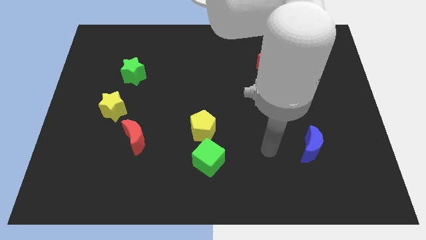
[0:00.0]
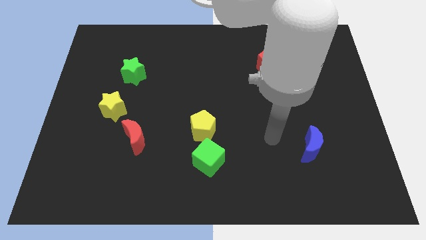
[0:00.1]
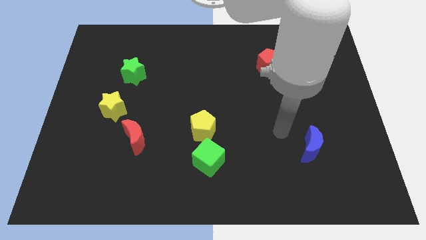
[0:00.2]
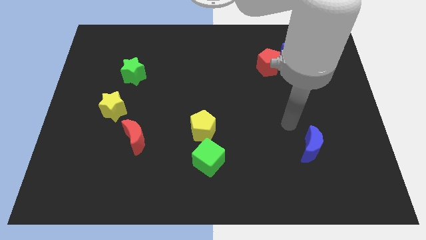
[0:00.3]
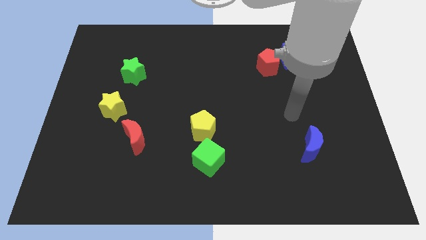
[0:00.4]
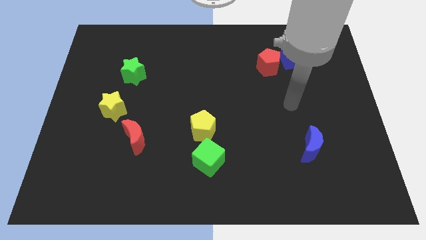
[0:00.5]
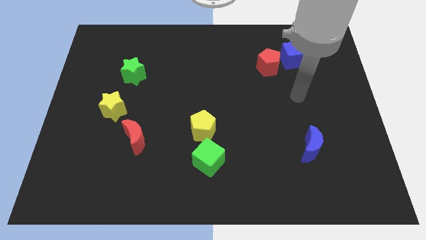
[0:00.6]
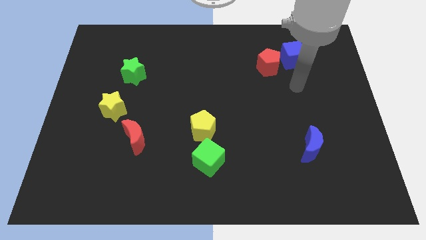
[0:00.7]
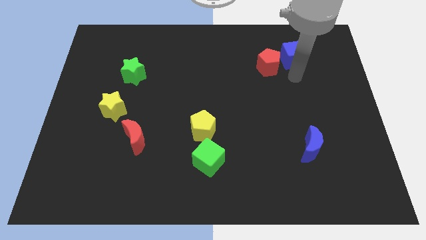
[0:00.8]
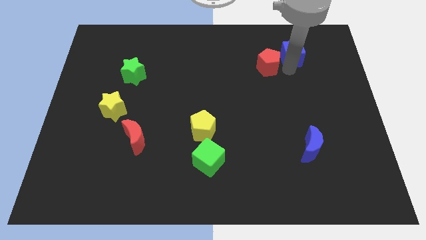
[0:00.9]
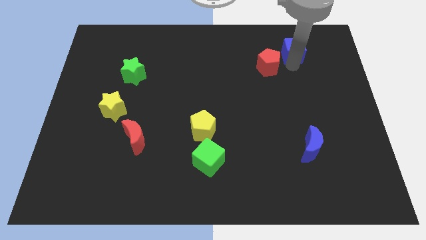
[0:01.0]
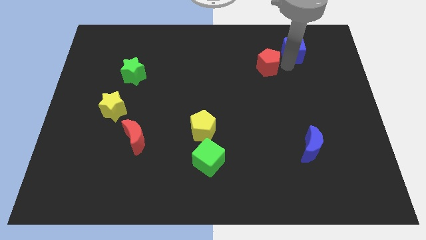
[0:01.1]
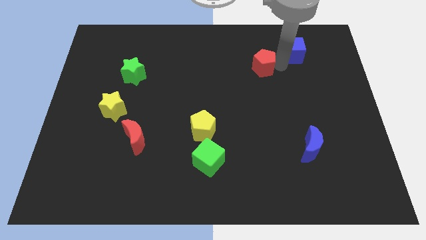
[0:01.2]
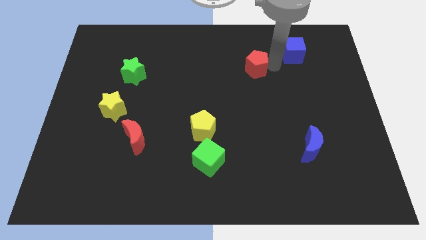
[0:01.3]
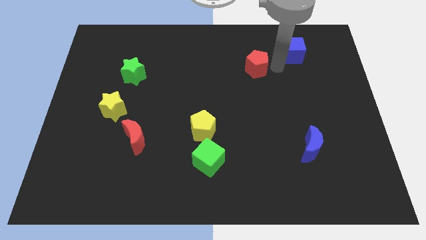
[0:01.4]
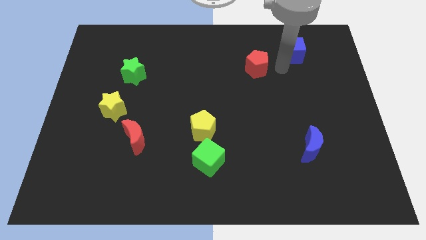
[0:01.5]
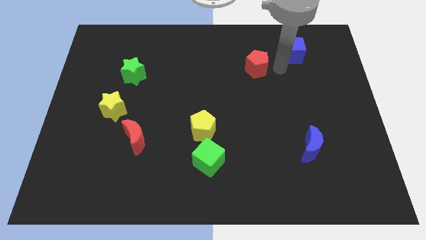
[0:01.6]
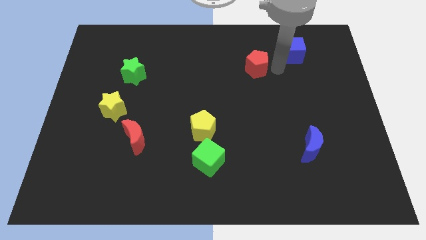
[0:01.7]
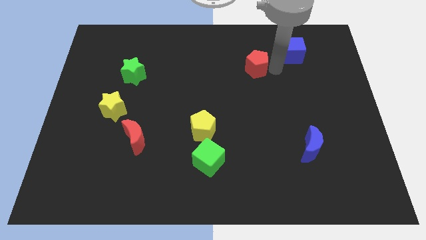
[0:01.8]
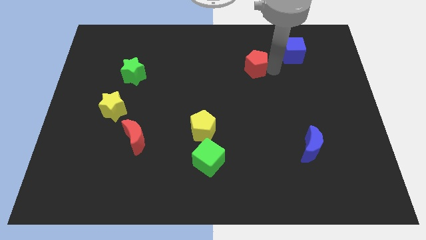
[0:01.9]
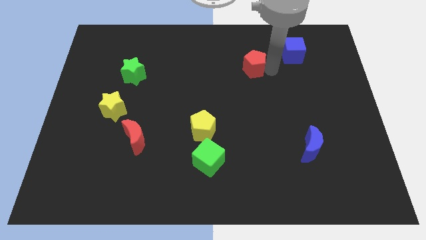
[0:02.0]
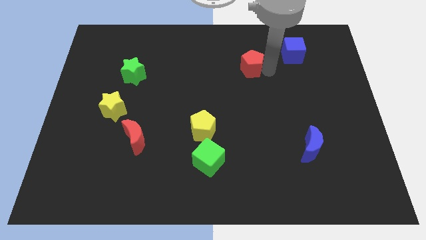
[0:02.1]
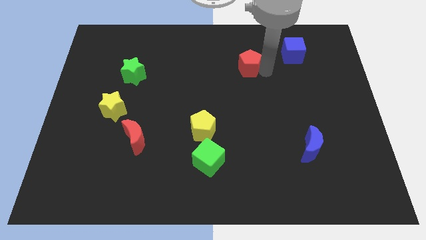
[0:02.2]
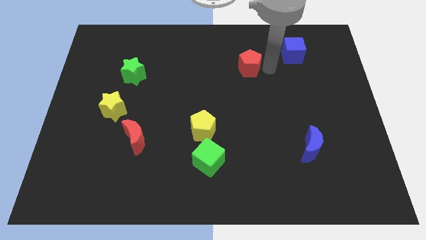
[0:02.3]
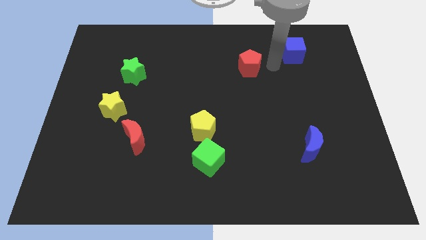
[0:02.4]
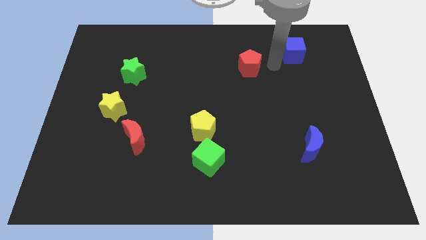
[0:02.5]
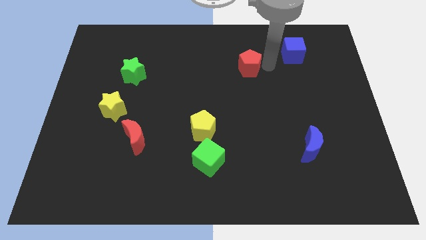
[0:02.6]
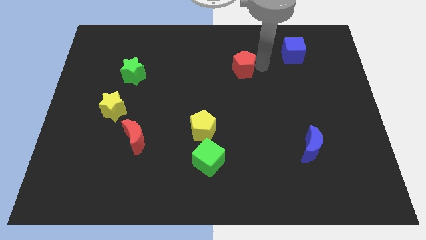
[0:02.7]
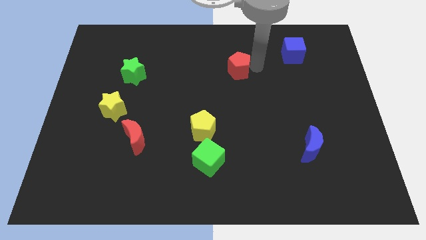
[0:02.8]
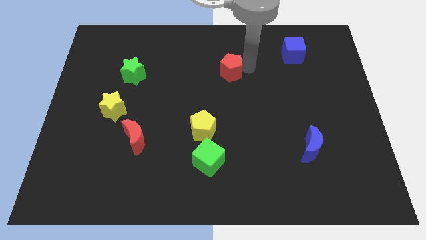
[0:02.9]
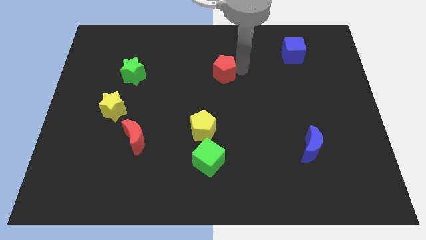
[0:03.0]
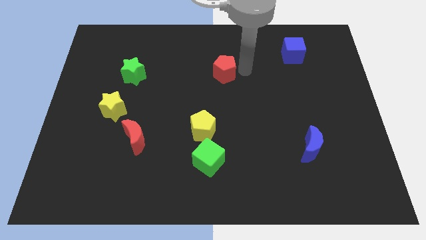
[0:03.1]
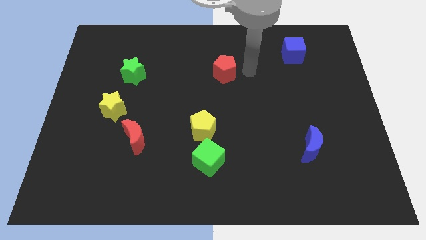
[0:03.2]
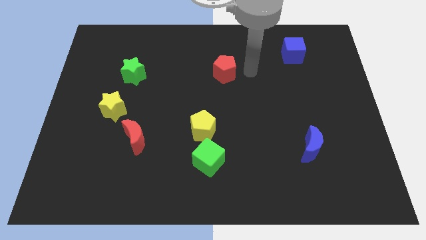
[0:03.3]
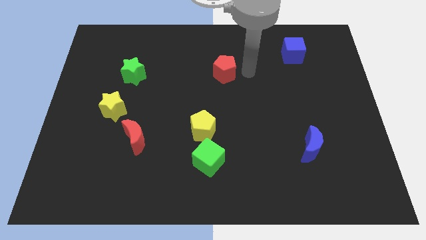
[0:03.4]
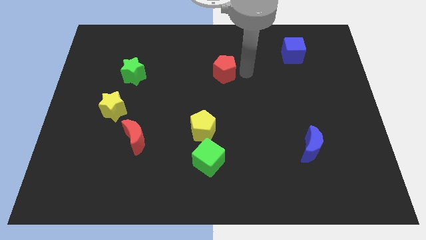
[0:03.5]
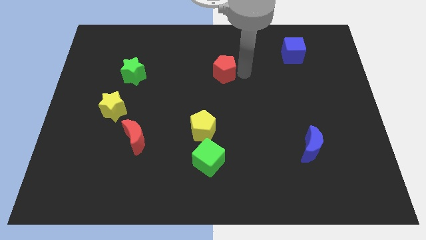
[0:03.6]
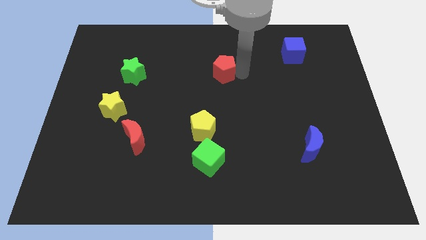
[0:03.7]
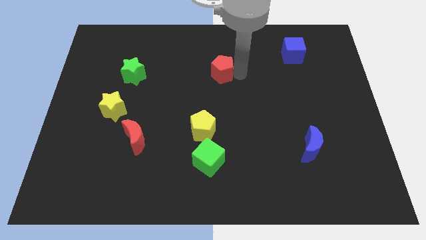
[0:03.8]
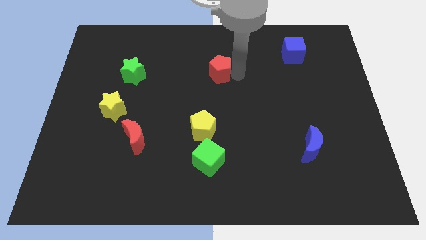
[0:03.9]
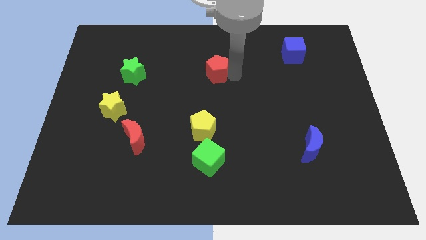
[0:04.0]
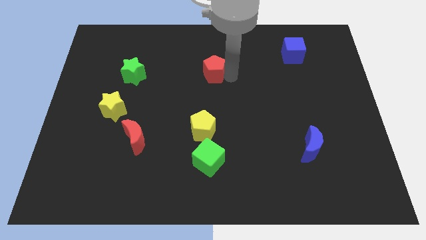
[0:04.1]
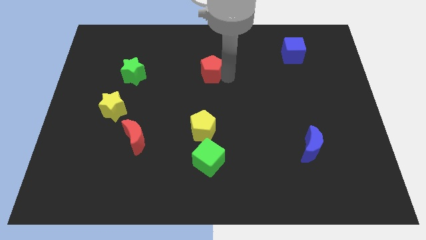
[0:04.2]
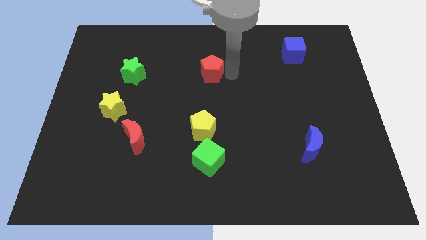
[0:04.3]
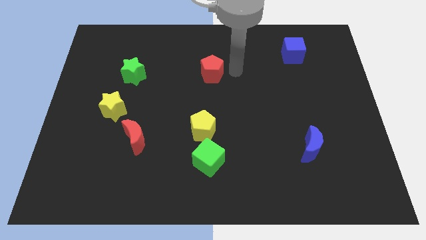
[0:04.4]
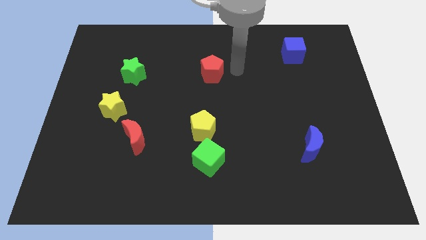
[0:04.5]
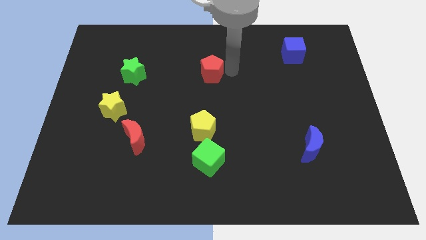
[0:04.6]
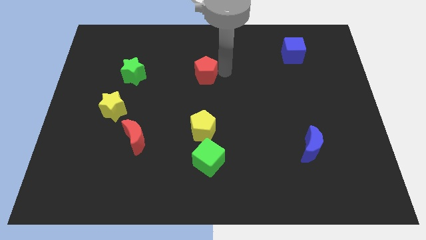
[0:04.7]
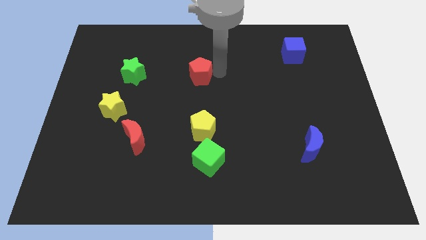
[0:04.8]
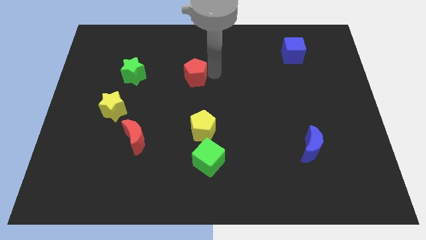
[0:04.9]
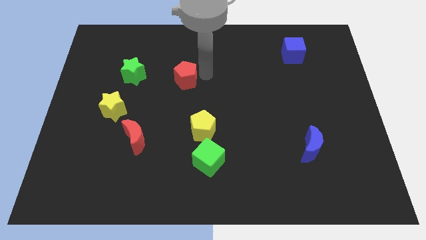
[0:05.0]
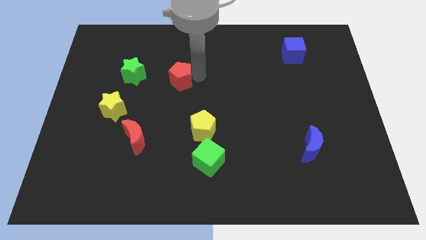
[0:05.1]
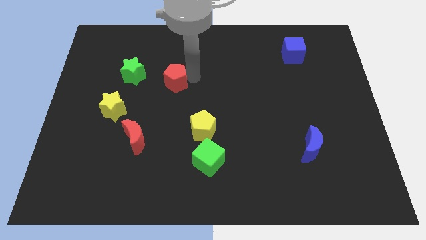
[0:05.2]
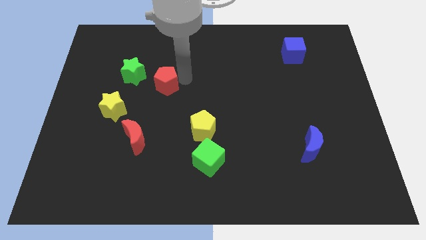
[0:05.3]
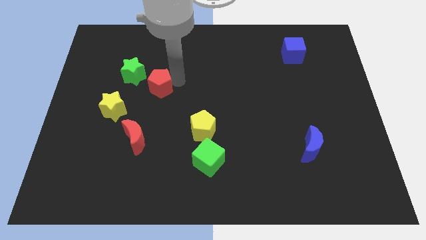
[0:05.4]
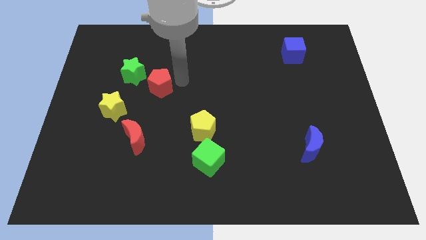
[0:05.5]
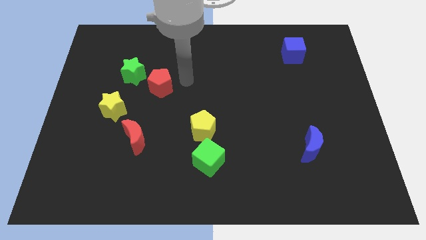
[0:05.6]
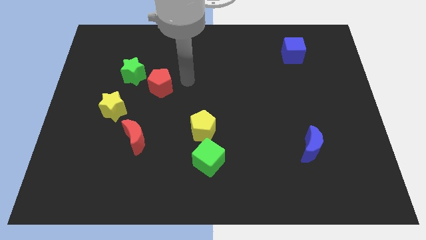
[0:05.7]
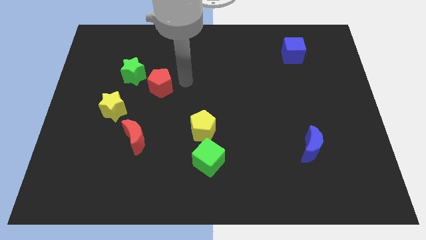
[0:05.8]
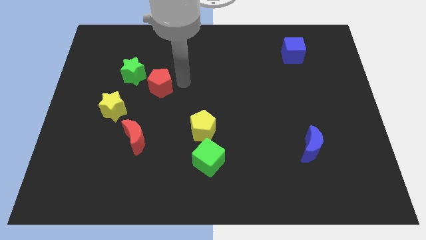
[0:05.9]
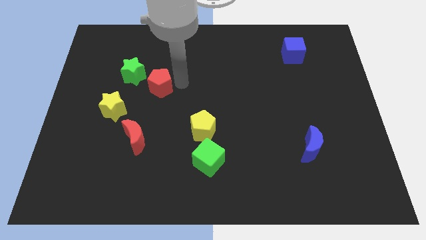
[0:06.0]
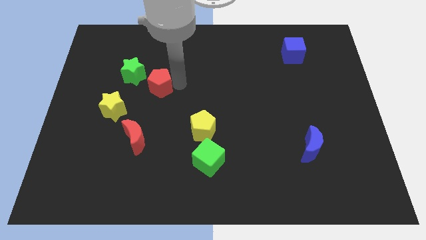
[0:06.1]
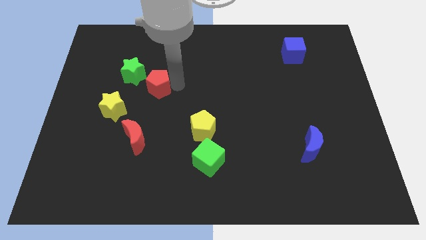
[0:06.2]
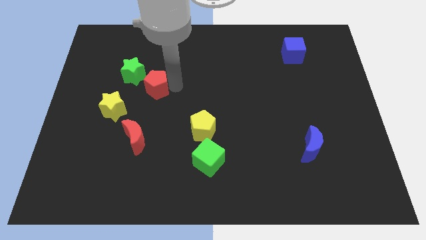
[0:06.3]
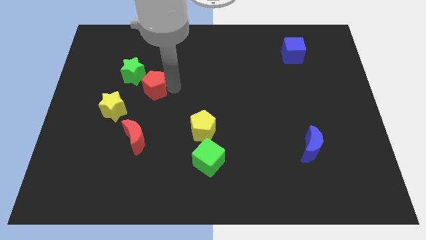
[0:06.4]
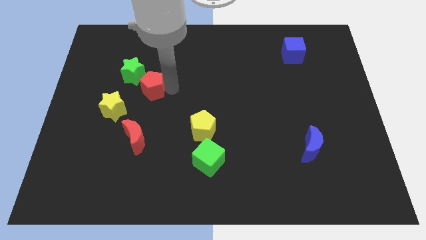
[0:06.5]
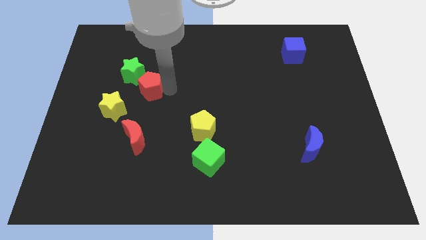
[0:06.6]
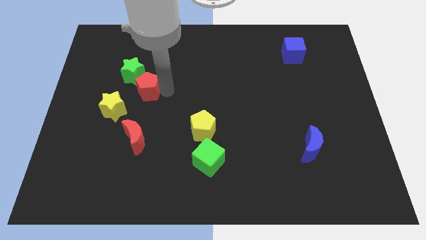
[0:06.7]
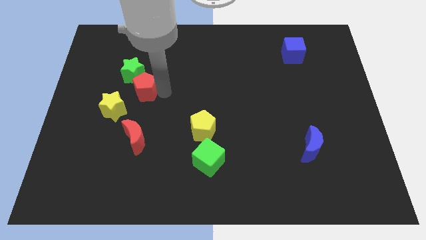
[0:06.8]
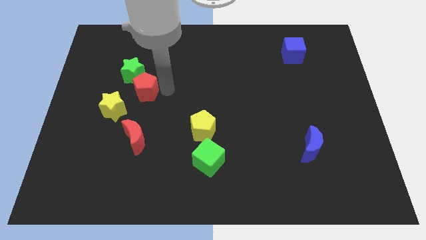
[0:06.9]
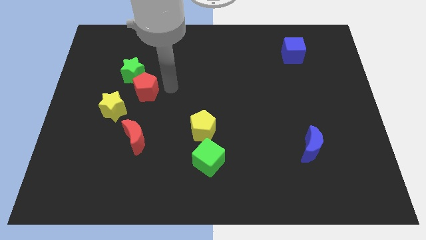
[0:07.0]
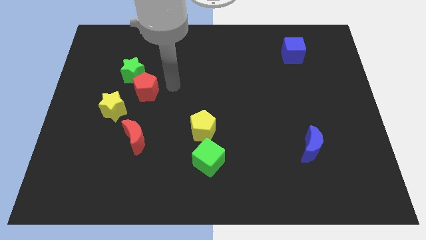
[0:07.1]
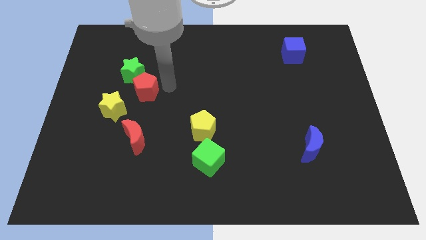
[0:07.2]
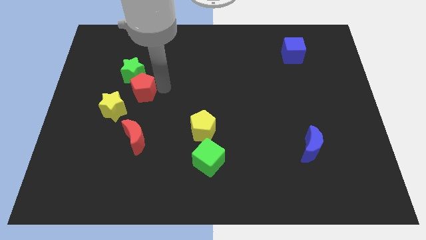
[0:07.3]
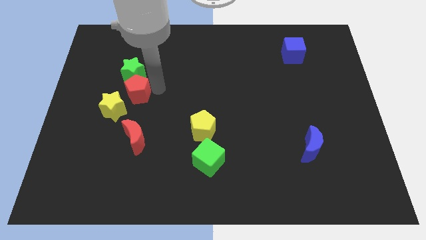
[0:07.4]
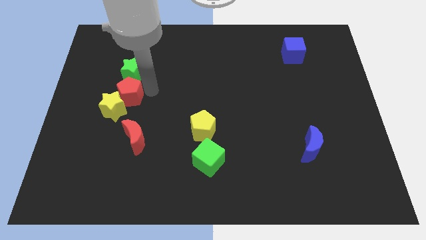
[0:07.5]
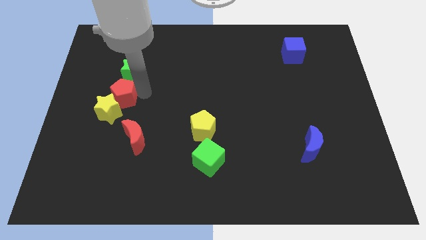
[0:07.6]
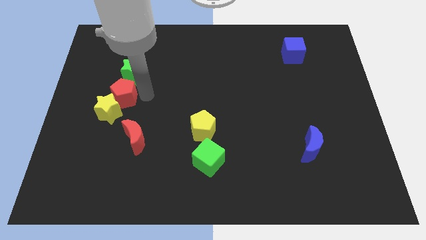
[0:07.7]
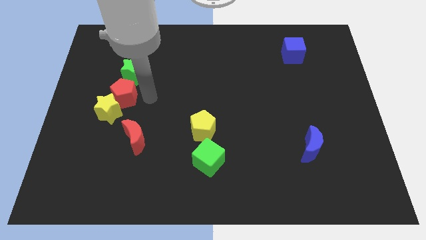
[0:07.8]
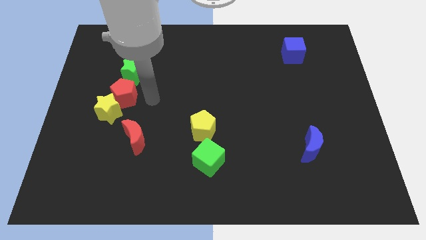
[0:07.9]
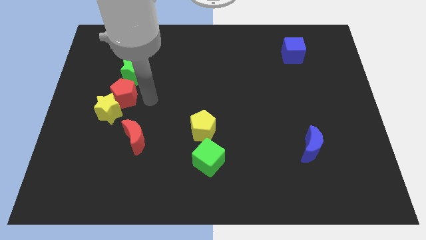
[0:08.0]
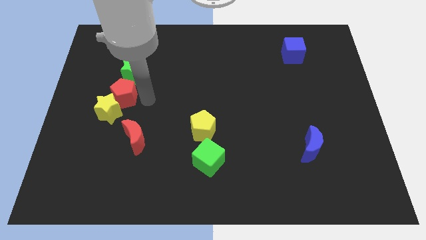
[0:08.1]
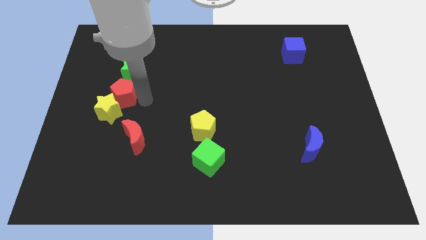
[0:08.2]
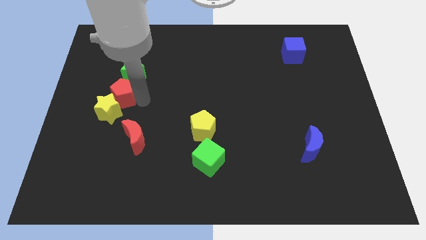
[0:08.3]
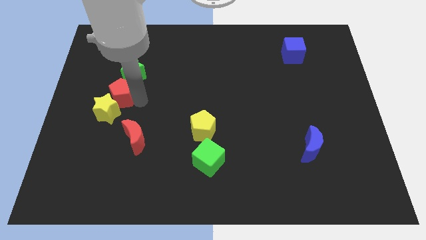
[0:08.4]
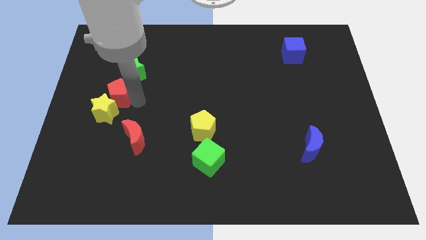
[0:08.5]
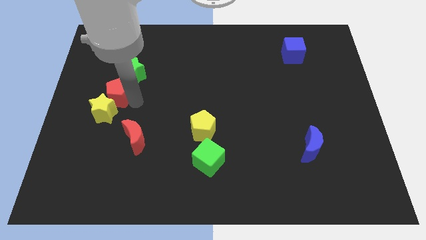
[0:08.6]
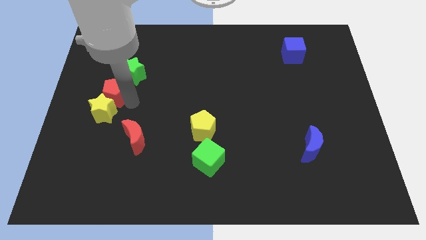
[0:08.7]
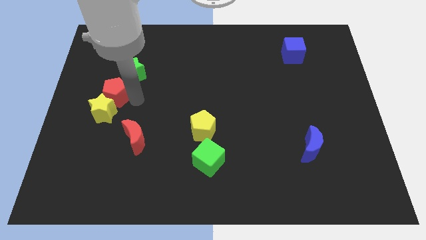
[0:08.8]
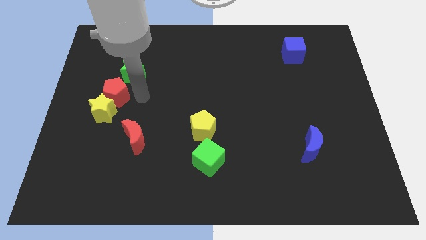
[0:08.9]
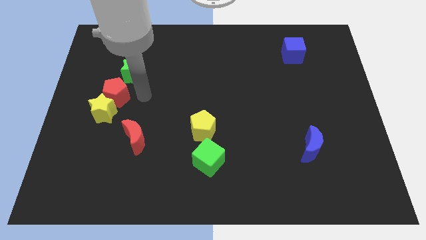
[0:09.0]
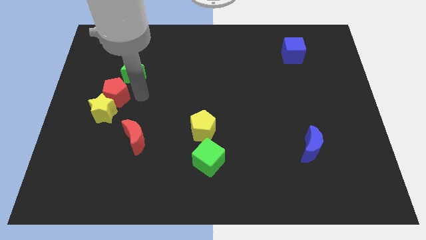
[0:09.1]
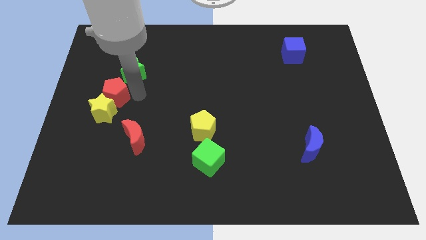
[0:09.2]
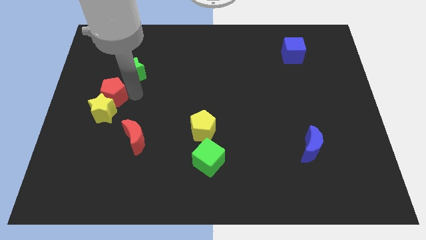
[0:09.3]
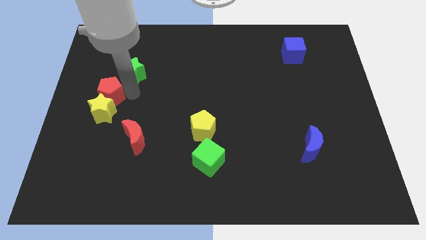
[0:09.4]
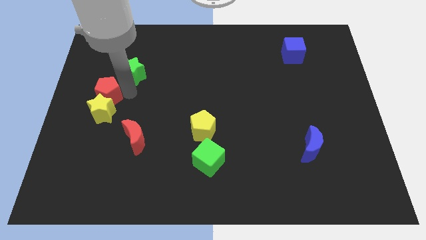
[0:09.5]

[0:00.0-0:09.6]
move the red pentagon to the left side of the board
